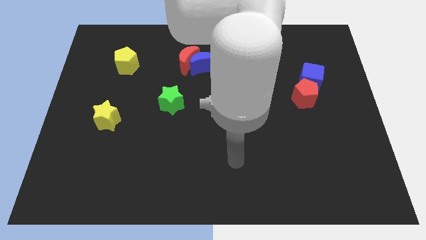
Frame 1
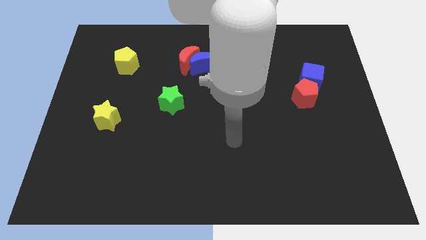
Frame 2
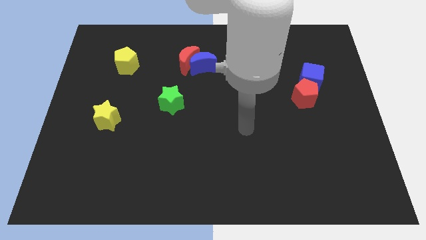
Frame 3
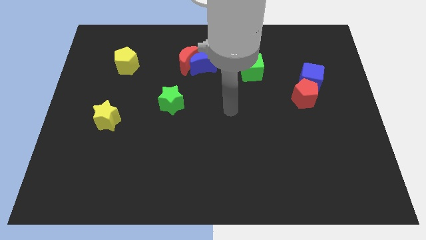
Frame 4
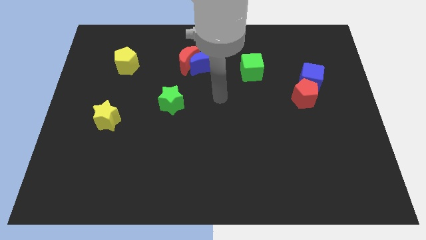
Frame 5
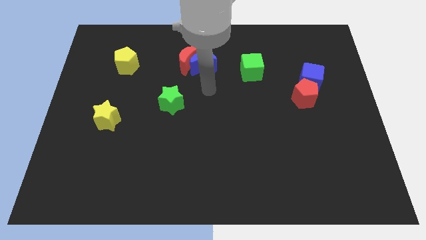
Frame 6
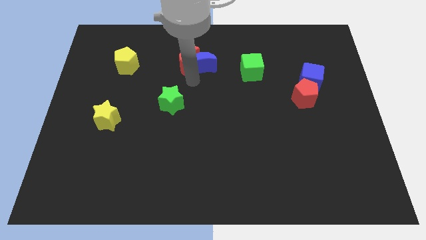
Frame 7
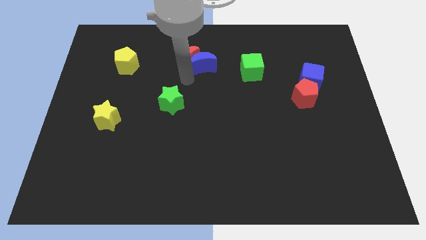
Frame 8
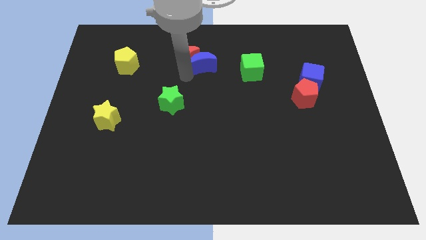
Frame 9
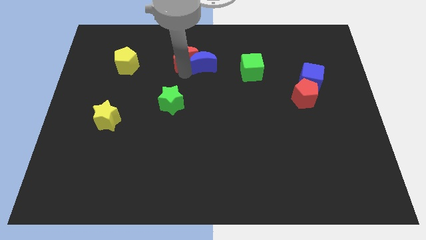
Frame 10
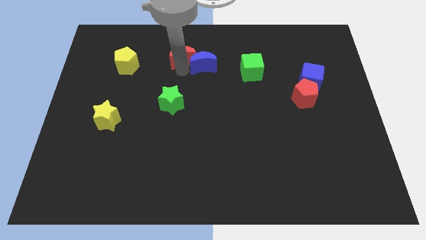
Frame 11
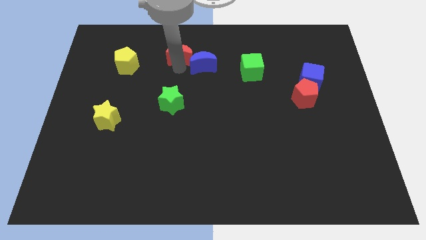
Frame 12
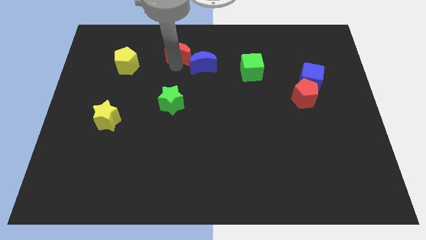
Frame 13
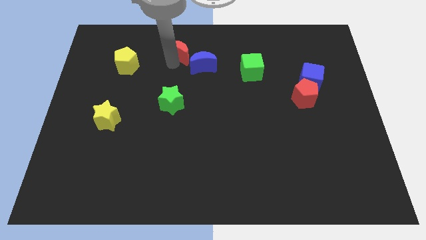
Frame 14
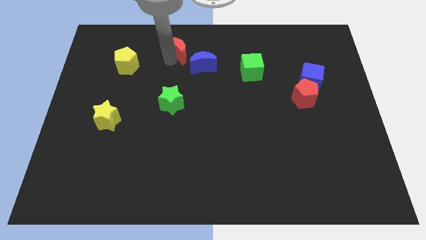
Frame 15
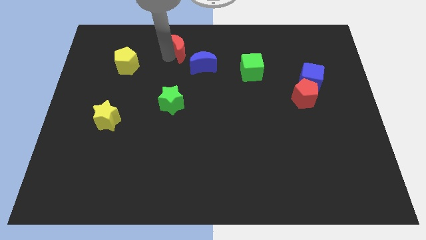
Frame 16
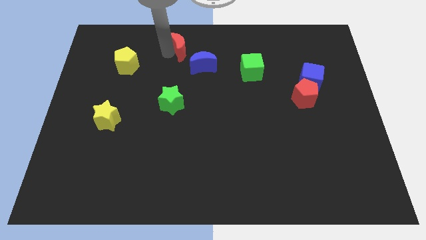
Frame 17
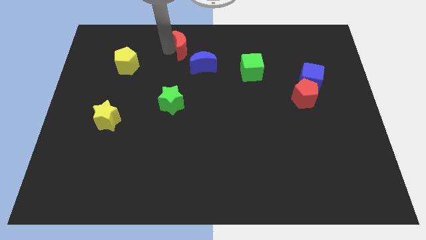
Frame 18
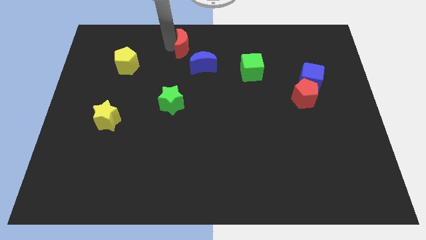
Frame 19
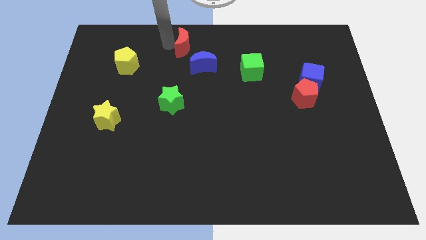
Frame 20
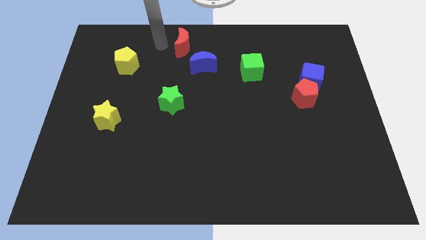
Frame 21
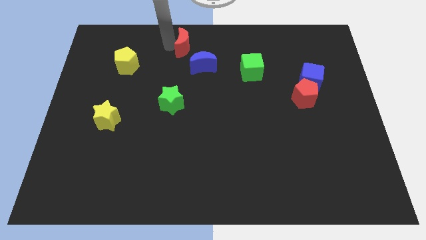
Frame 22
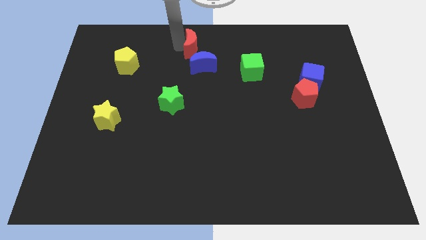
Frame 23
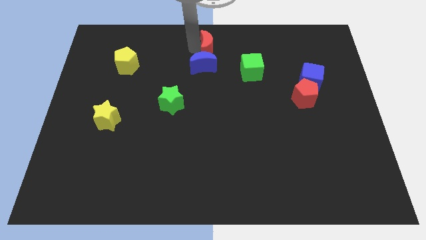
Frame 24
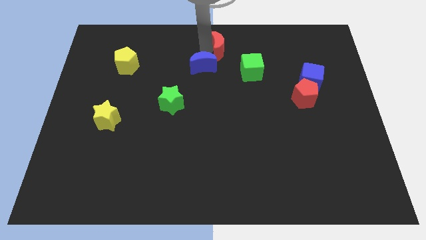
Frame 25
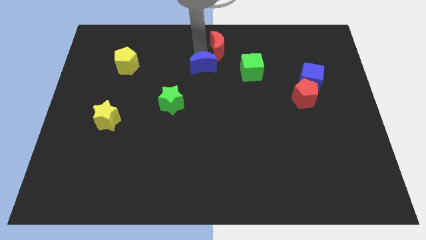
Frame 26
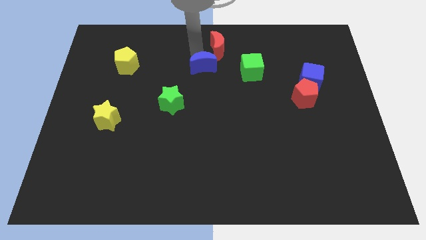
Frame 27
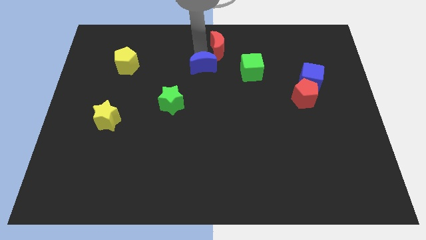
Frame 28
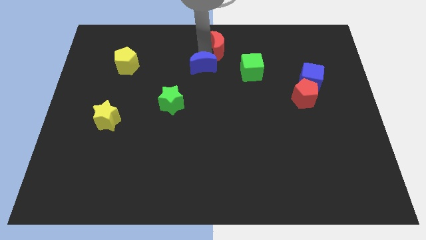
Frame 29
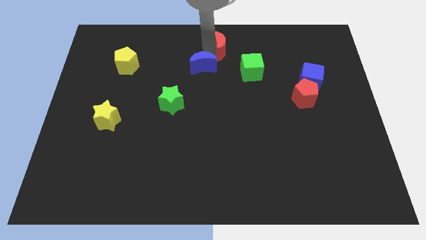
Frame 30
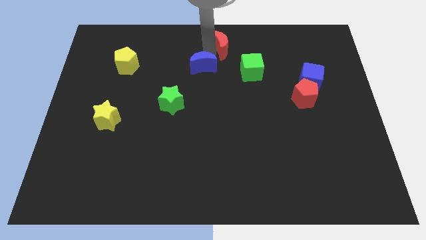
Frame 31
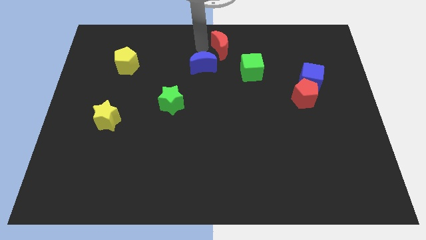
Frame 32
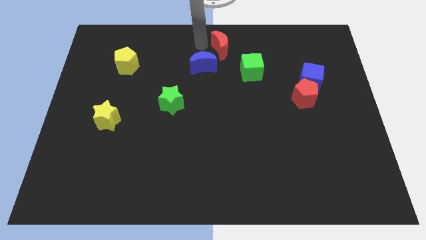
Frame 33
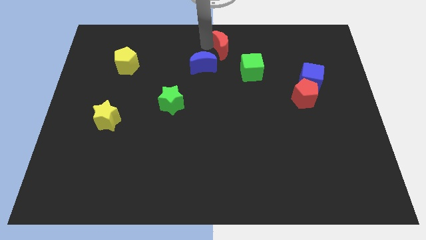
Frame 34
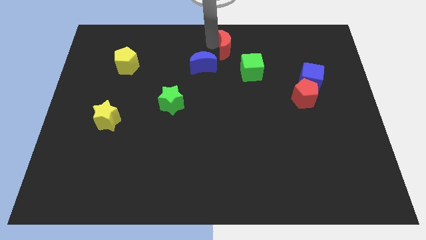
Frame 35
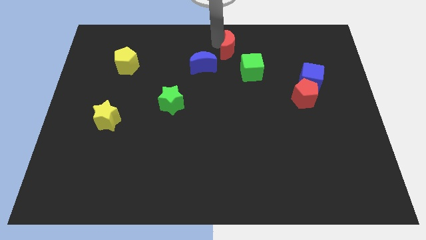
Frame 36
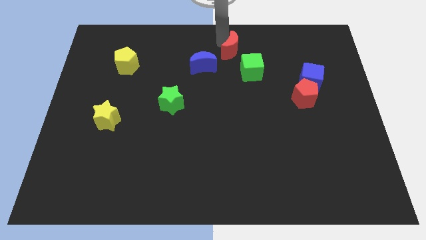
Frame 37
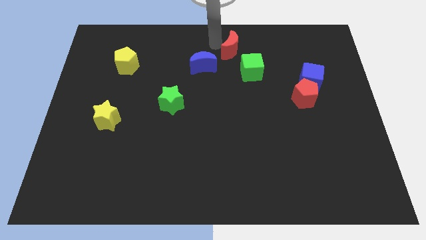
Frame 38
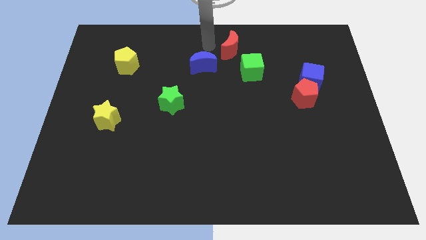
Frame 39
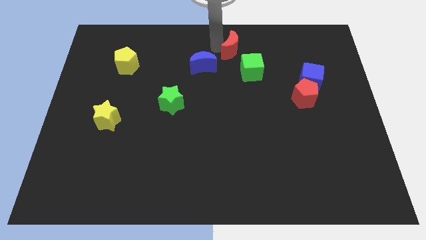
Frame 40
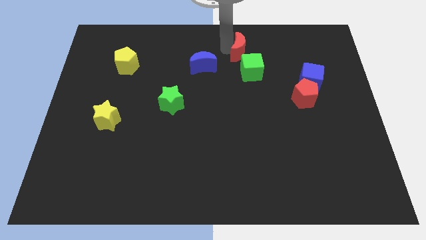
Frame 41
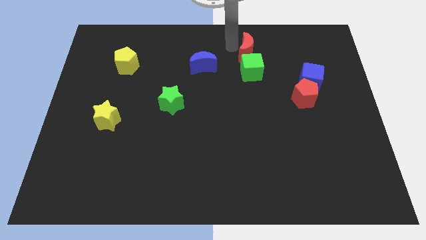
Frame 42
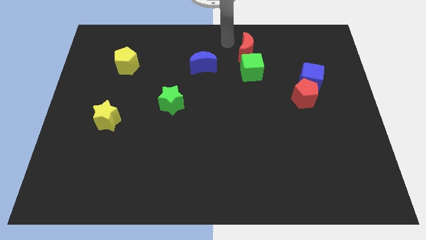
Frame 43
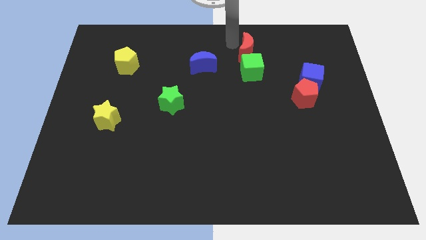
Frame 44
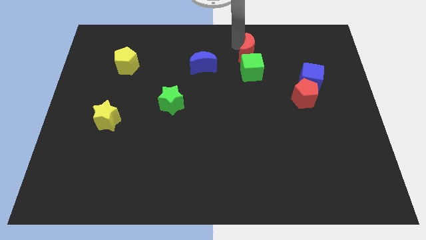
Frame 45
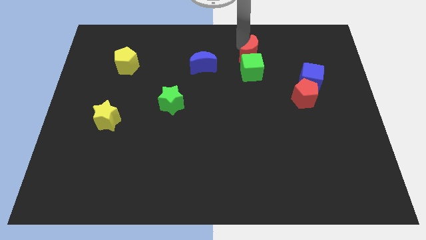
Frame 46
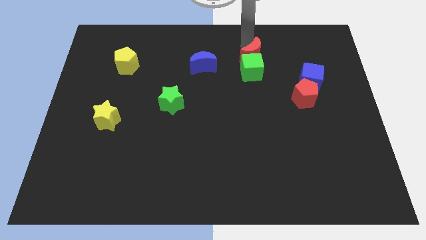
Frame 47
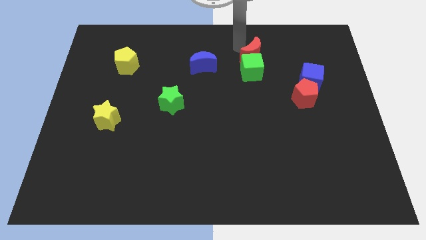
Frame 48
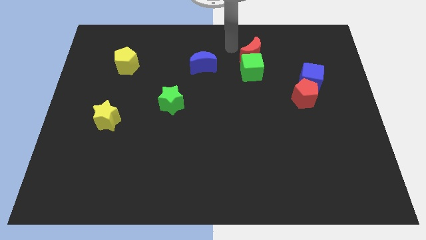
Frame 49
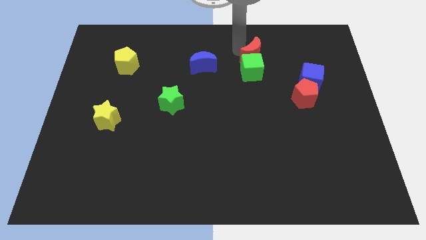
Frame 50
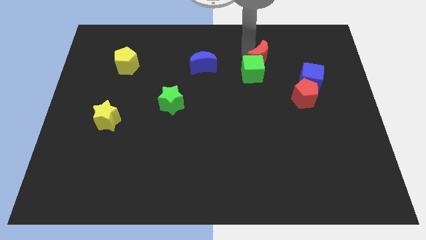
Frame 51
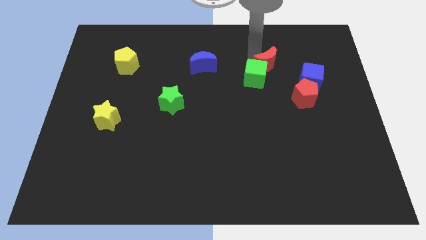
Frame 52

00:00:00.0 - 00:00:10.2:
slide the red moon right

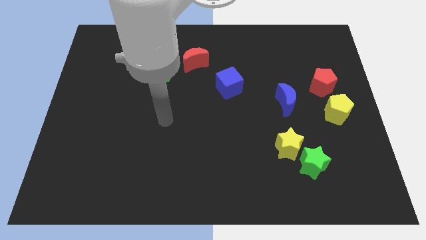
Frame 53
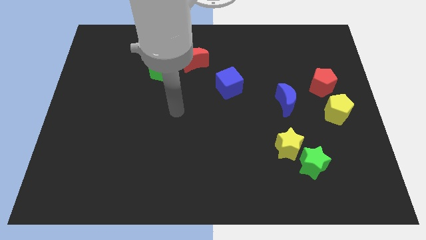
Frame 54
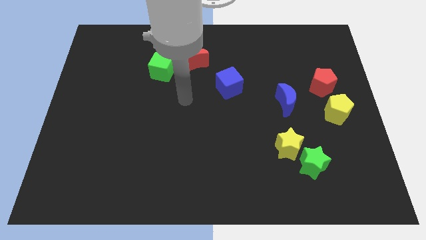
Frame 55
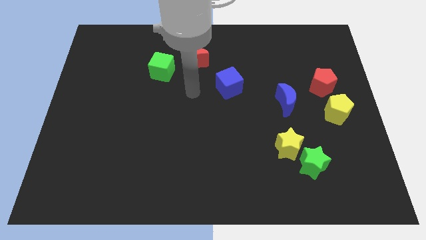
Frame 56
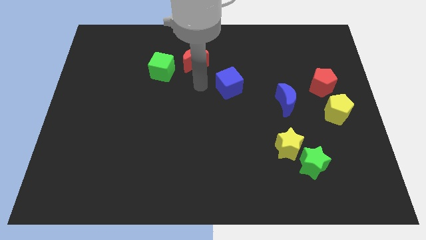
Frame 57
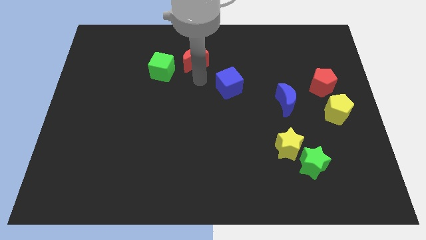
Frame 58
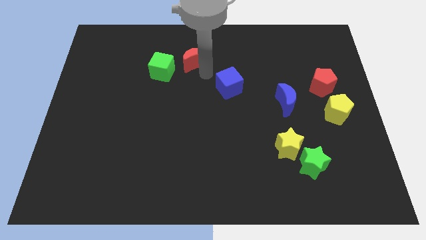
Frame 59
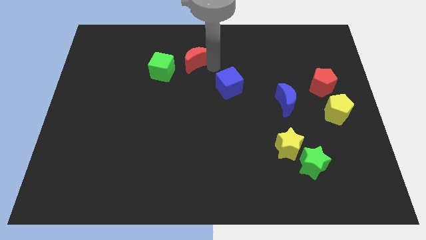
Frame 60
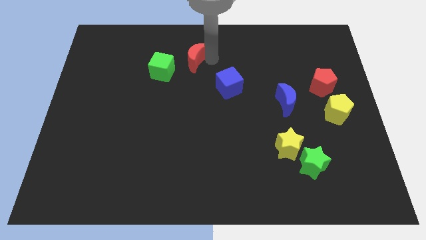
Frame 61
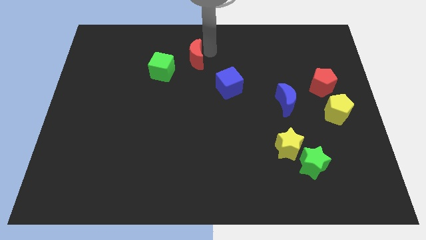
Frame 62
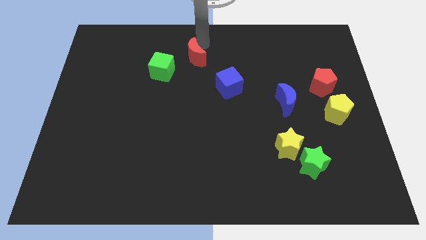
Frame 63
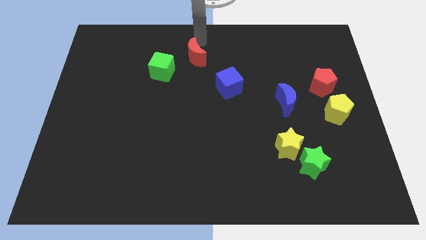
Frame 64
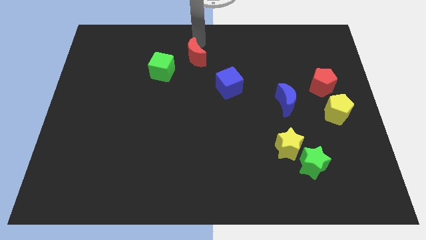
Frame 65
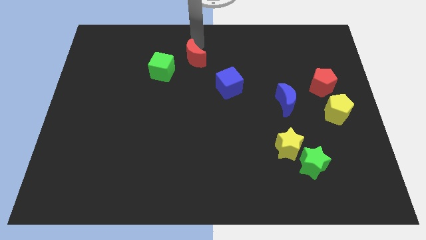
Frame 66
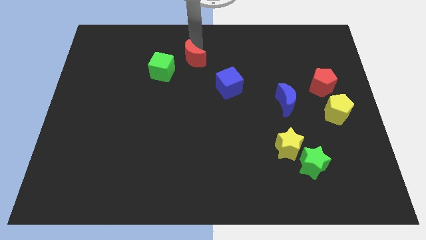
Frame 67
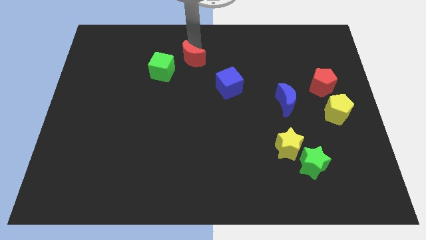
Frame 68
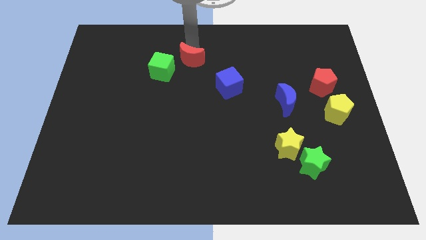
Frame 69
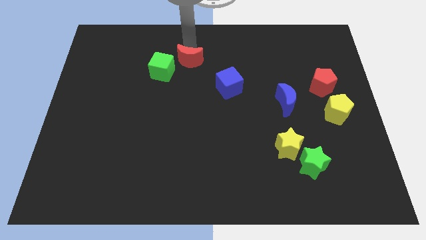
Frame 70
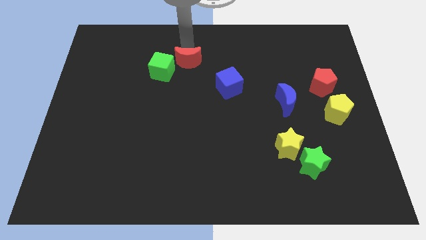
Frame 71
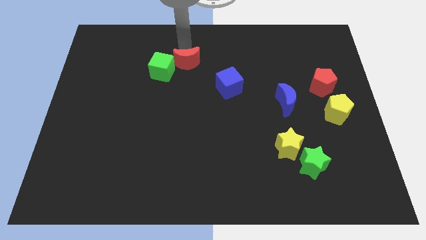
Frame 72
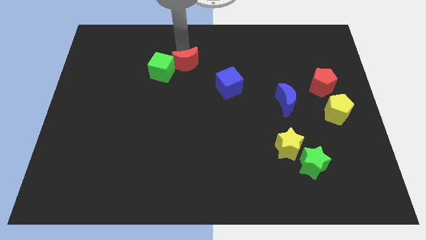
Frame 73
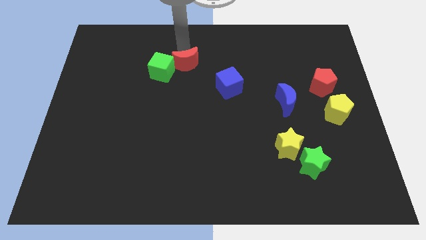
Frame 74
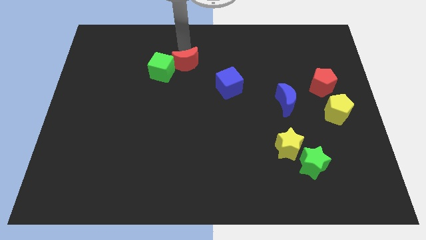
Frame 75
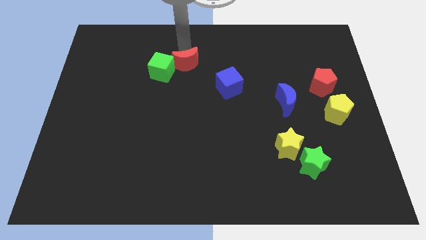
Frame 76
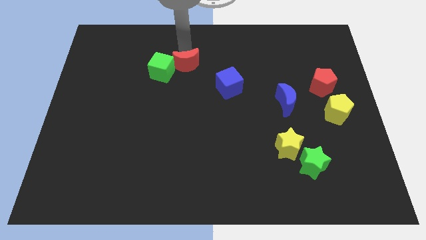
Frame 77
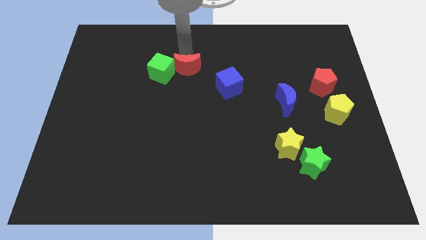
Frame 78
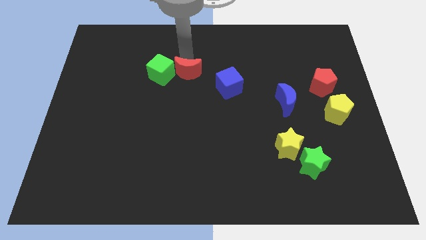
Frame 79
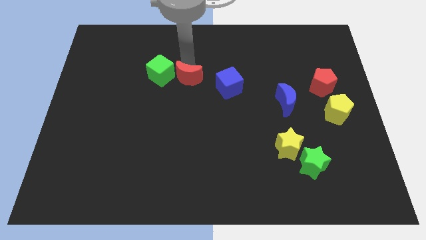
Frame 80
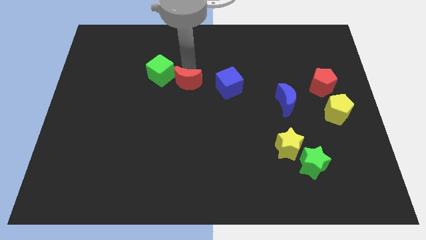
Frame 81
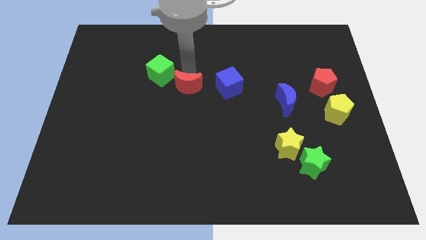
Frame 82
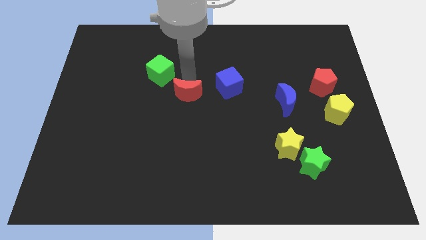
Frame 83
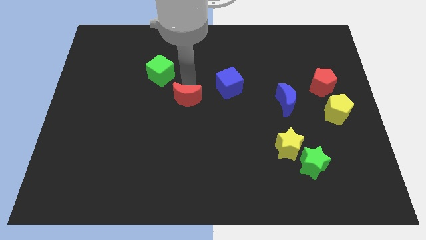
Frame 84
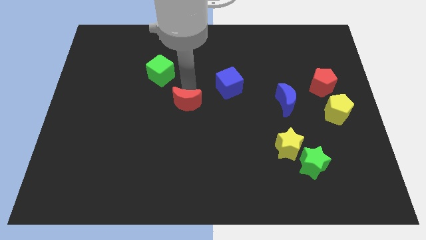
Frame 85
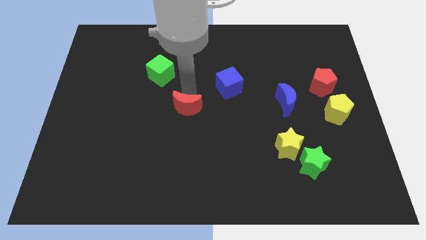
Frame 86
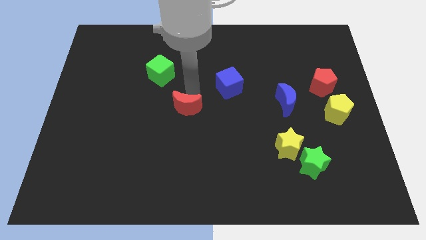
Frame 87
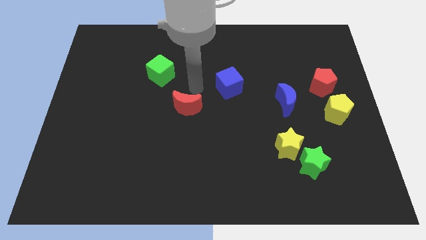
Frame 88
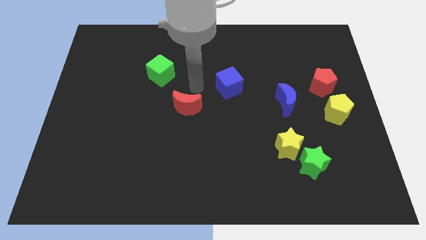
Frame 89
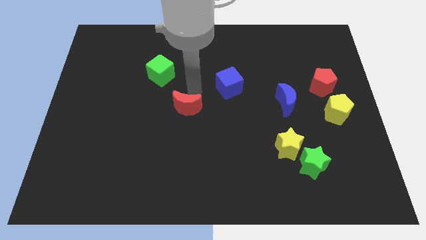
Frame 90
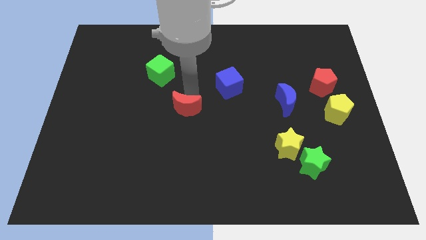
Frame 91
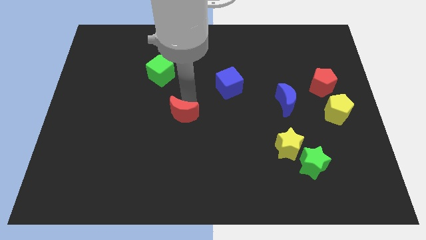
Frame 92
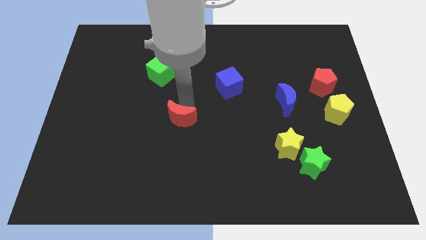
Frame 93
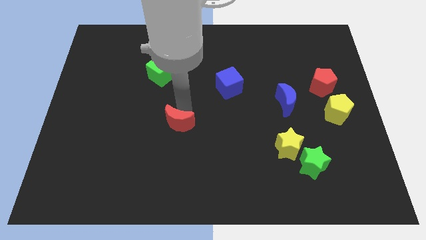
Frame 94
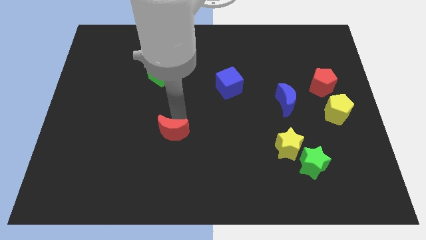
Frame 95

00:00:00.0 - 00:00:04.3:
slide the red moon downwards
